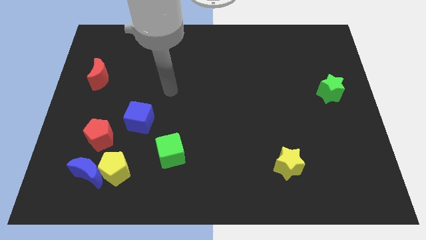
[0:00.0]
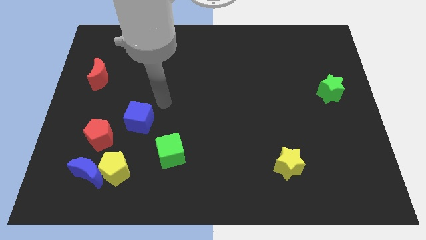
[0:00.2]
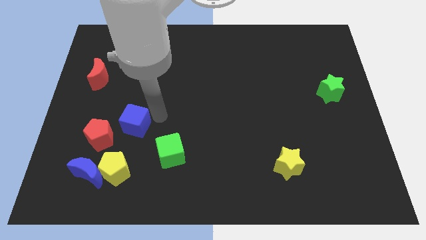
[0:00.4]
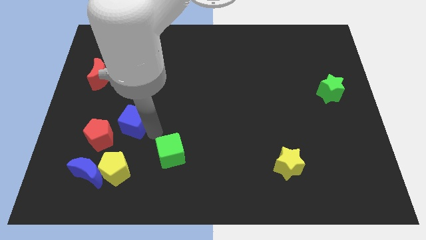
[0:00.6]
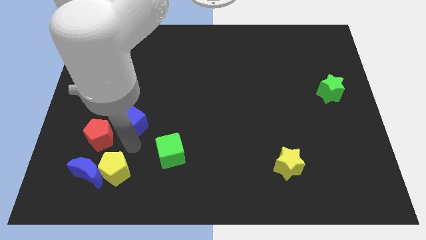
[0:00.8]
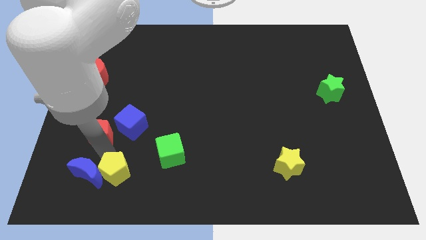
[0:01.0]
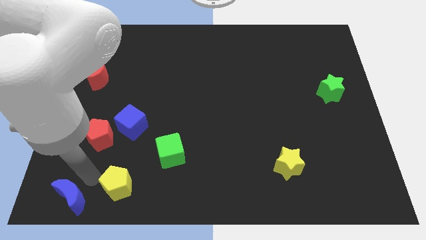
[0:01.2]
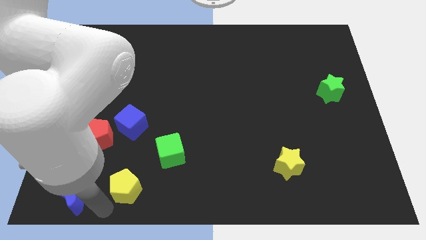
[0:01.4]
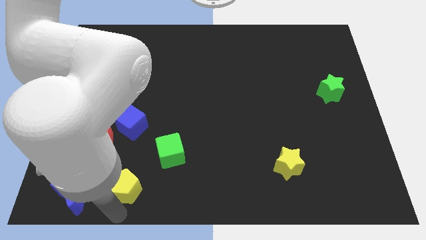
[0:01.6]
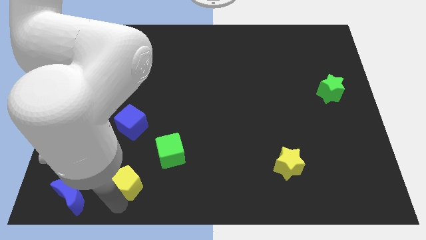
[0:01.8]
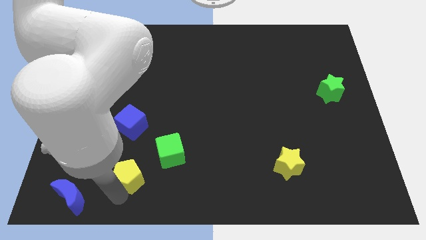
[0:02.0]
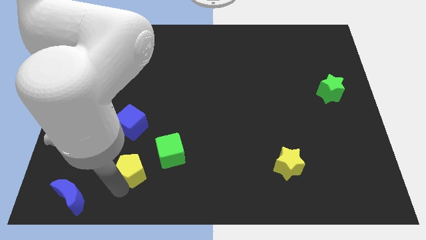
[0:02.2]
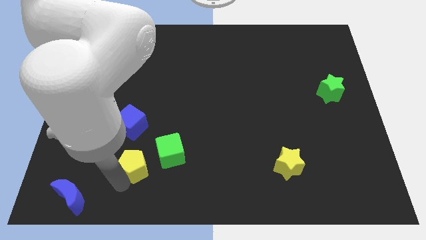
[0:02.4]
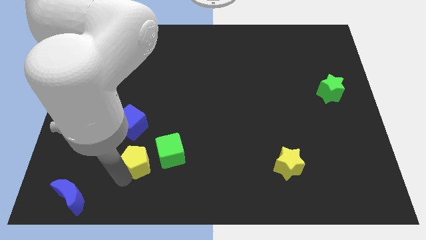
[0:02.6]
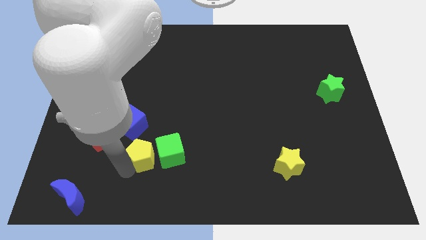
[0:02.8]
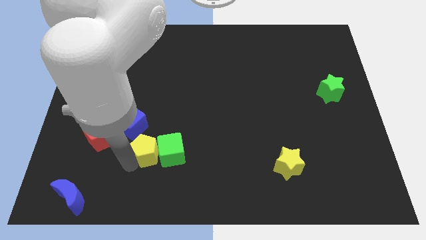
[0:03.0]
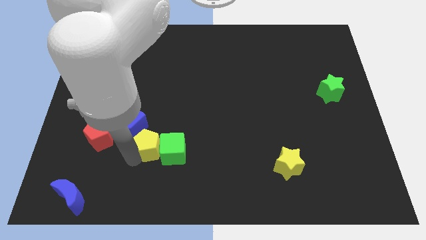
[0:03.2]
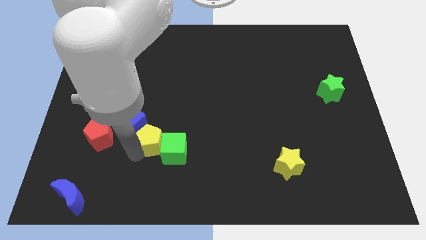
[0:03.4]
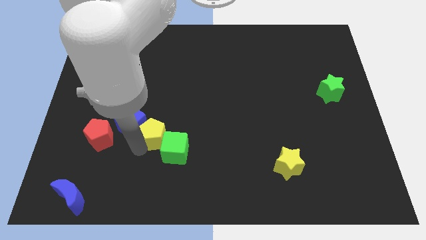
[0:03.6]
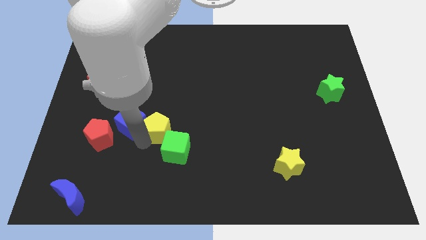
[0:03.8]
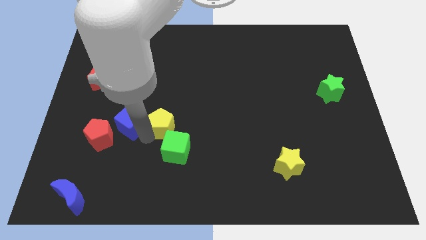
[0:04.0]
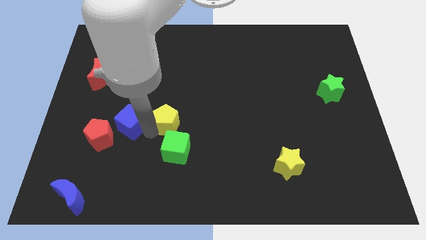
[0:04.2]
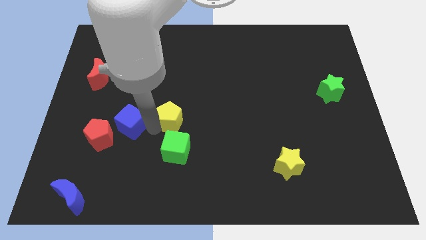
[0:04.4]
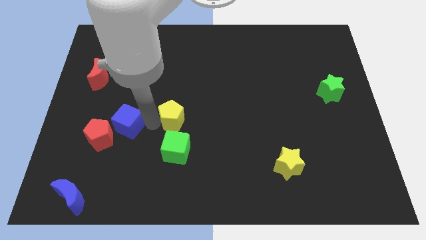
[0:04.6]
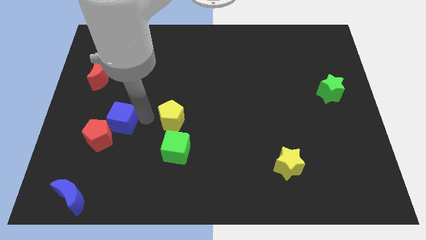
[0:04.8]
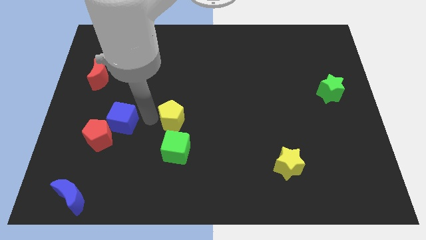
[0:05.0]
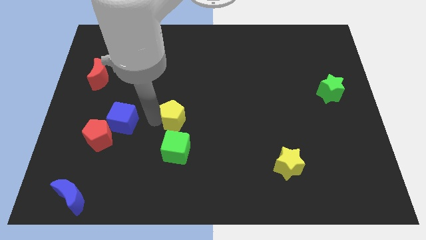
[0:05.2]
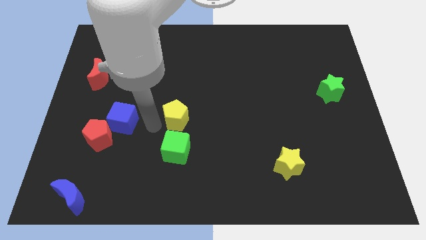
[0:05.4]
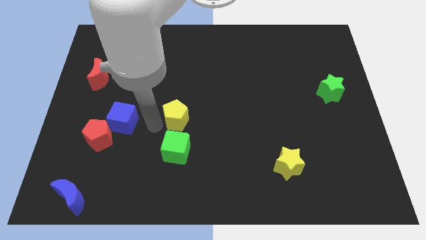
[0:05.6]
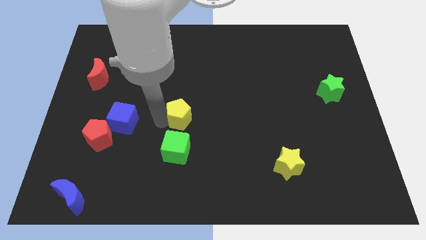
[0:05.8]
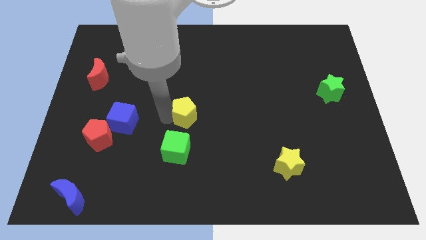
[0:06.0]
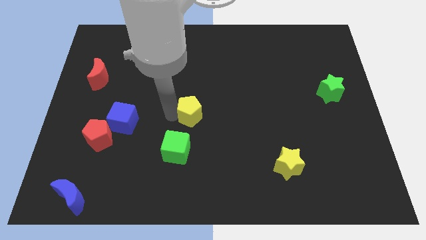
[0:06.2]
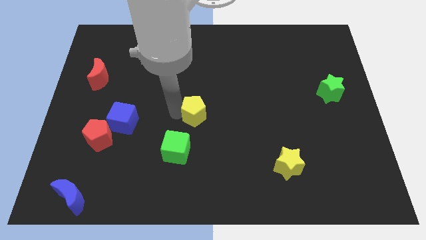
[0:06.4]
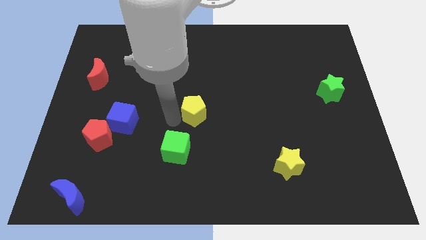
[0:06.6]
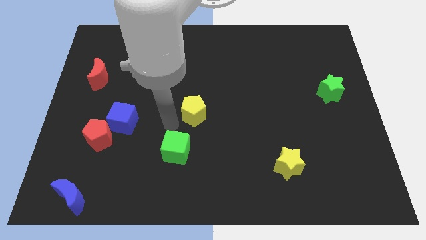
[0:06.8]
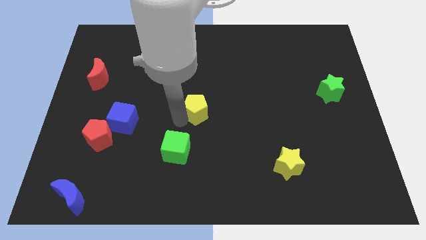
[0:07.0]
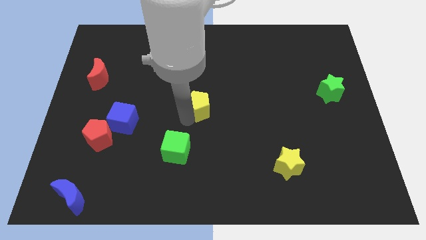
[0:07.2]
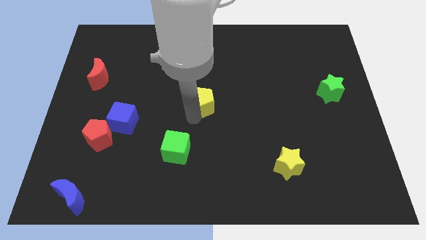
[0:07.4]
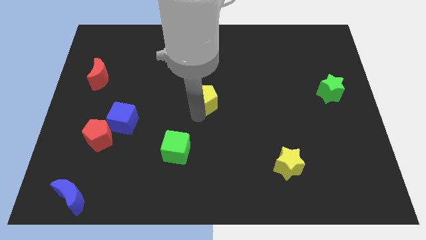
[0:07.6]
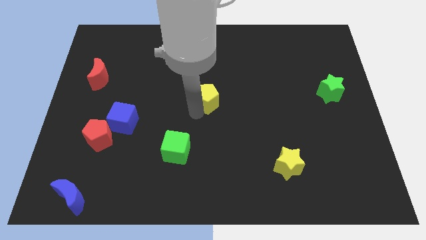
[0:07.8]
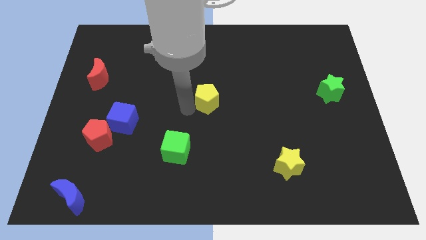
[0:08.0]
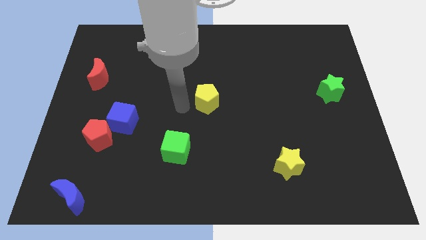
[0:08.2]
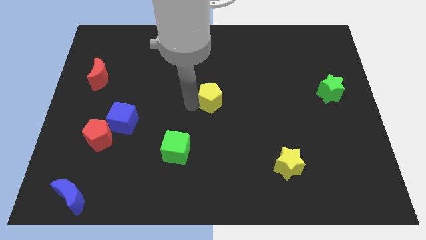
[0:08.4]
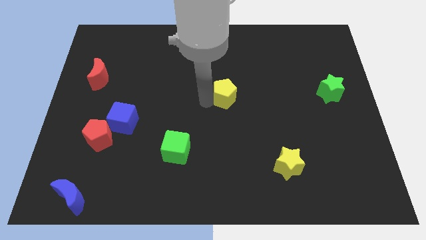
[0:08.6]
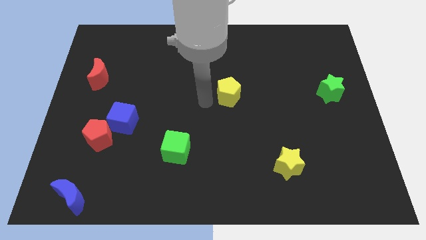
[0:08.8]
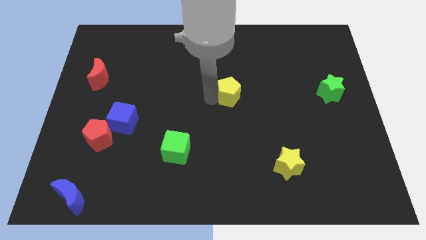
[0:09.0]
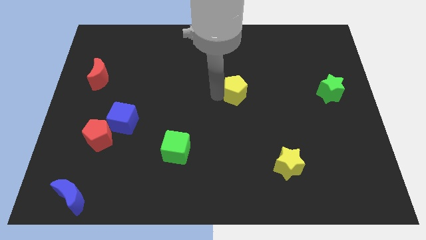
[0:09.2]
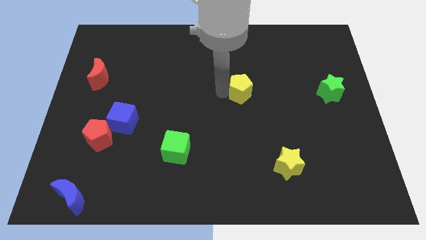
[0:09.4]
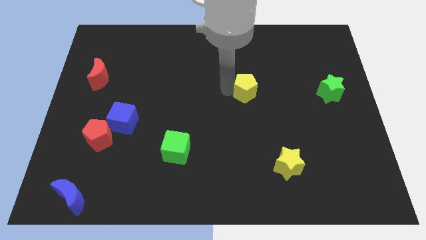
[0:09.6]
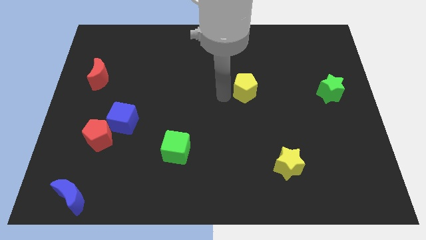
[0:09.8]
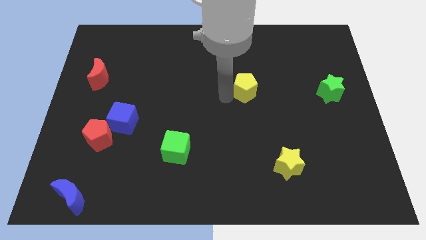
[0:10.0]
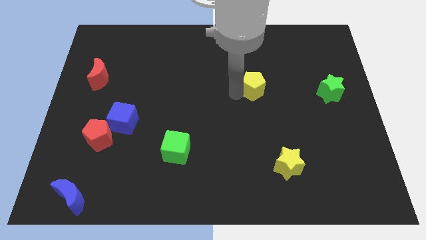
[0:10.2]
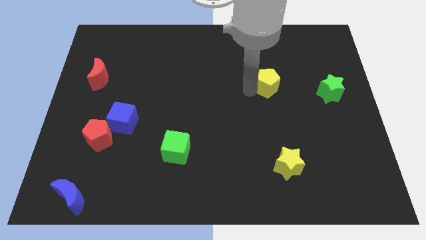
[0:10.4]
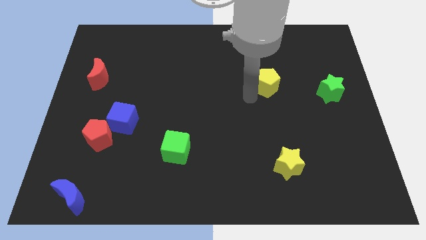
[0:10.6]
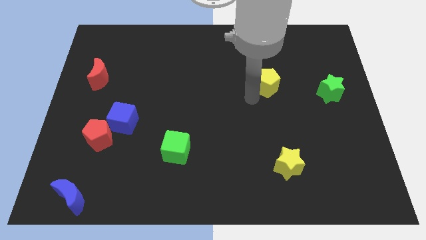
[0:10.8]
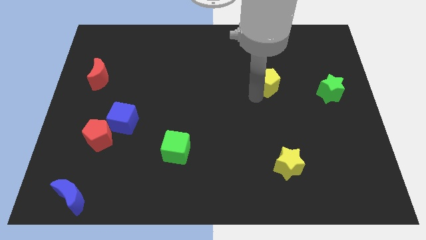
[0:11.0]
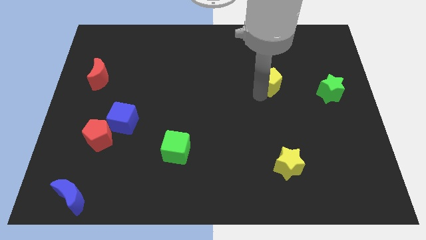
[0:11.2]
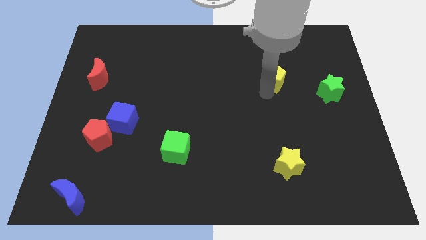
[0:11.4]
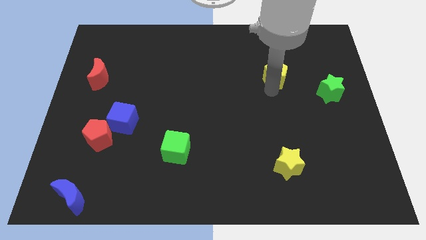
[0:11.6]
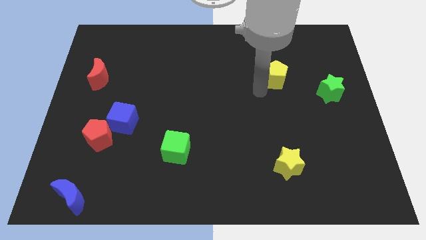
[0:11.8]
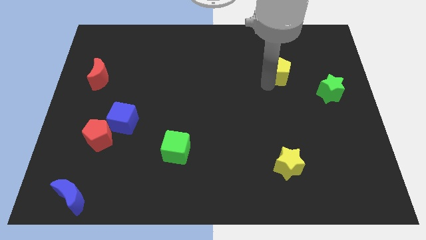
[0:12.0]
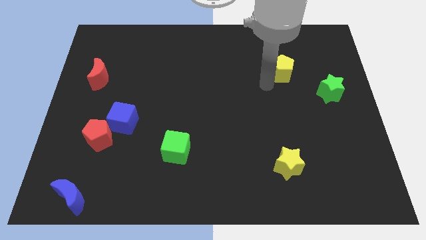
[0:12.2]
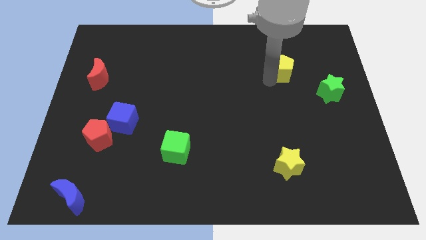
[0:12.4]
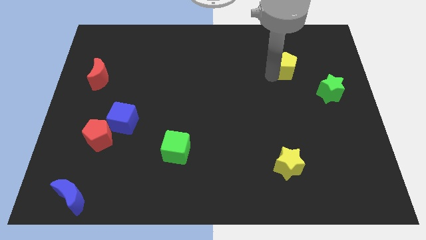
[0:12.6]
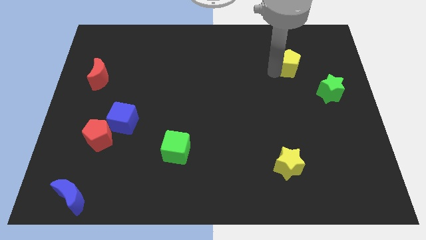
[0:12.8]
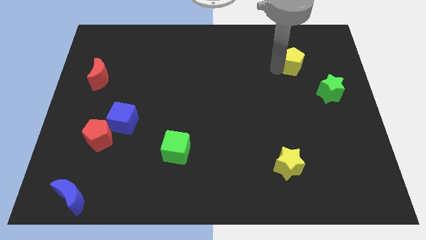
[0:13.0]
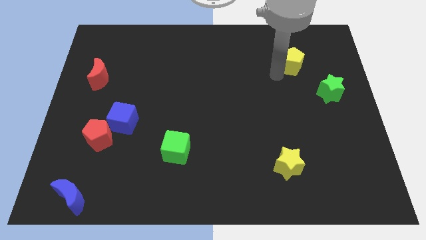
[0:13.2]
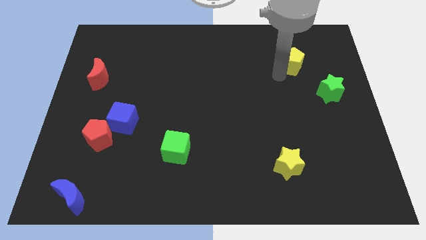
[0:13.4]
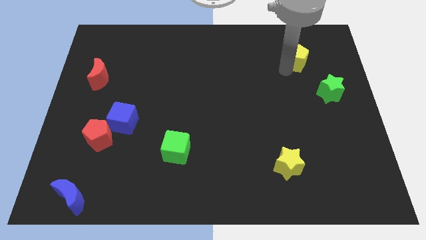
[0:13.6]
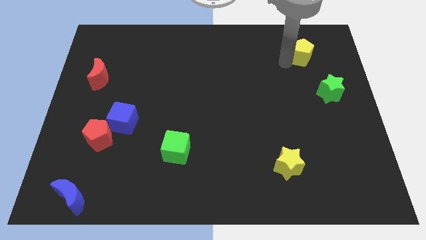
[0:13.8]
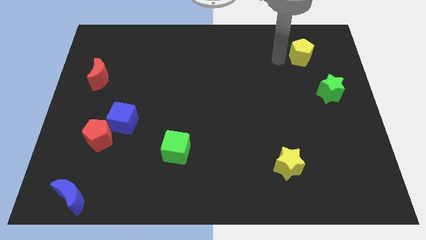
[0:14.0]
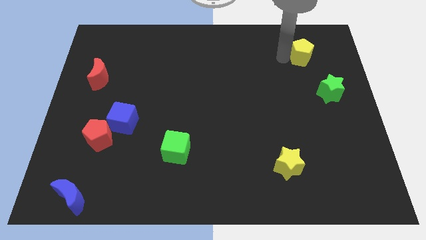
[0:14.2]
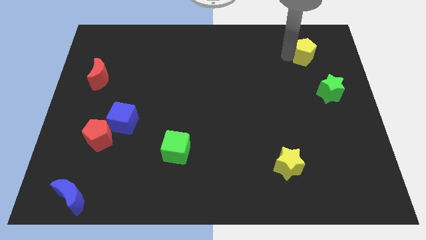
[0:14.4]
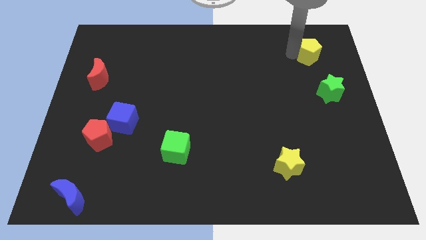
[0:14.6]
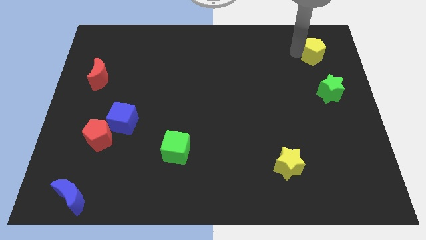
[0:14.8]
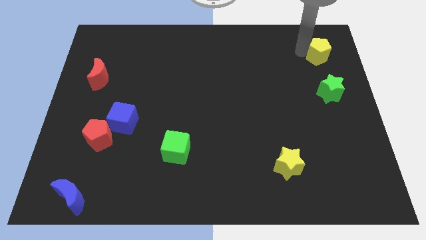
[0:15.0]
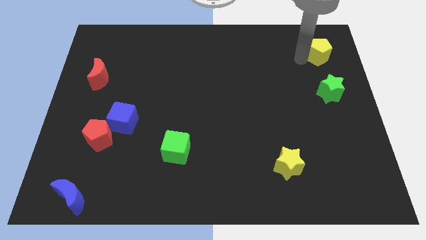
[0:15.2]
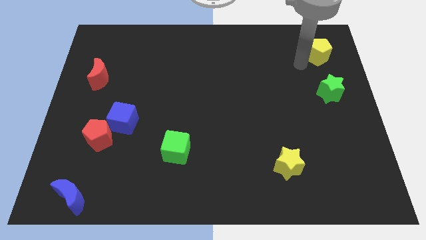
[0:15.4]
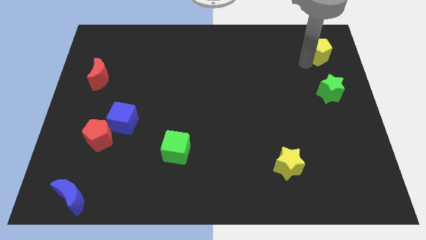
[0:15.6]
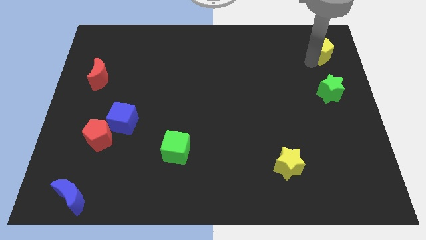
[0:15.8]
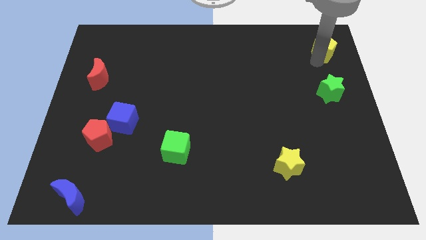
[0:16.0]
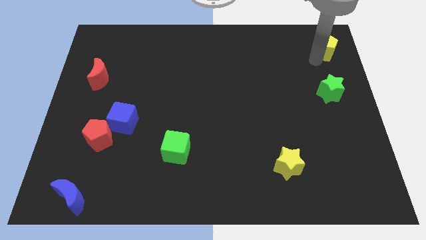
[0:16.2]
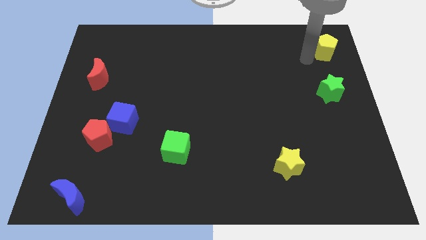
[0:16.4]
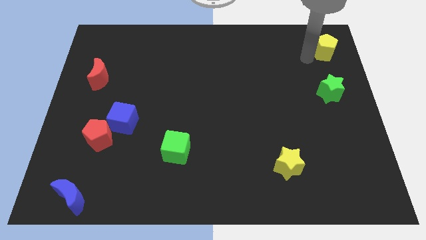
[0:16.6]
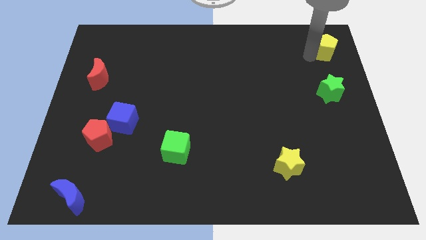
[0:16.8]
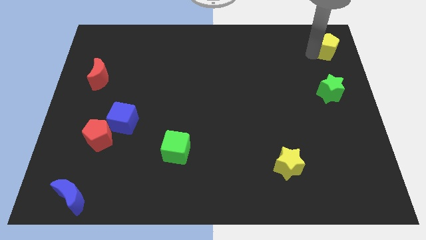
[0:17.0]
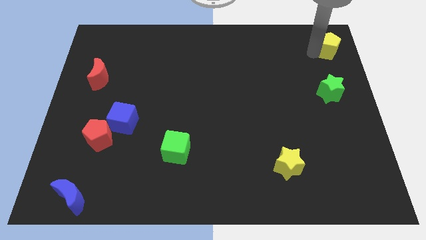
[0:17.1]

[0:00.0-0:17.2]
move the yellow pentagon to the top right corner
